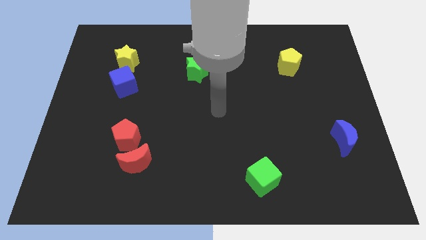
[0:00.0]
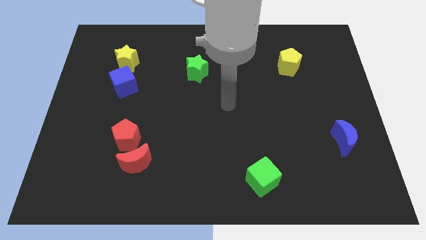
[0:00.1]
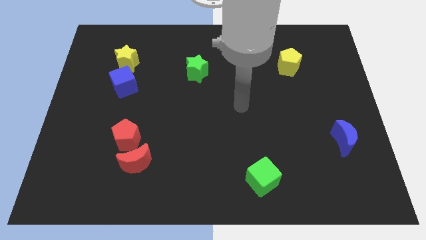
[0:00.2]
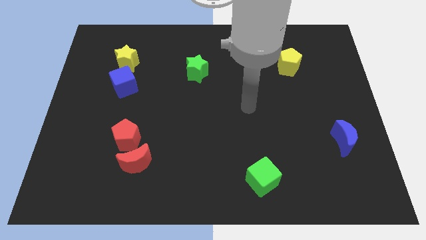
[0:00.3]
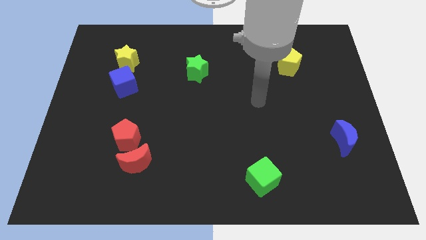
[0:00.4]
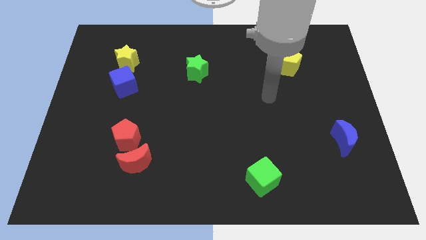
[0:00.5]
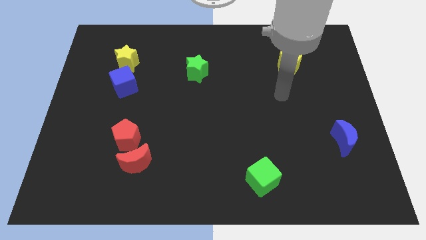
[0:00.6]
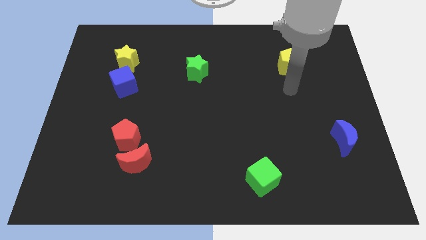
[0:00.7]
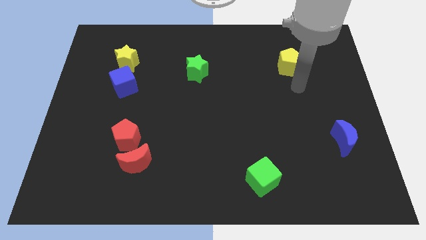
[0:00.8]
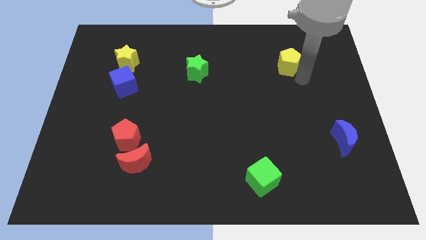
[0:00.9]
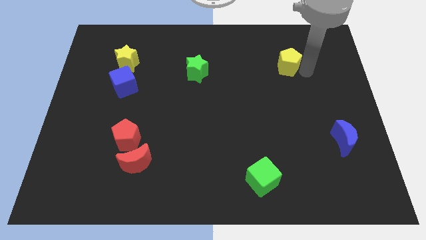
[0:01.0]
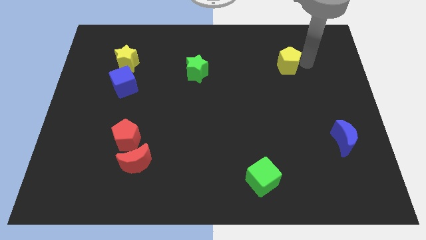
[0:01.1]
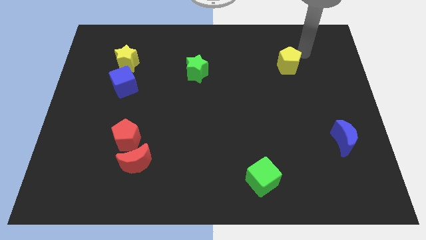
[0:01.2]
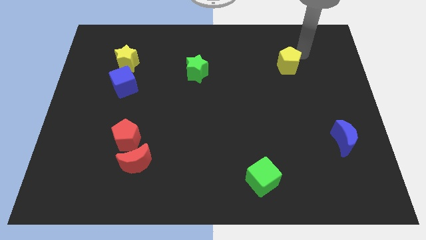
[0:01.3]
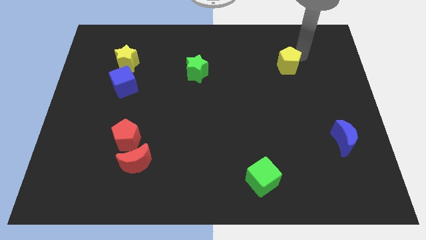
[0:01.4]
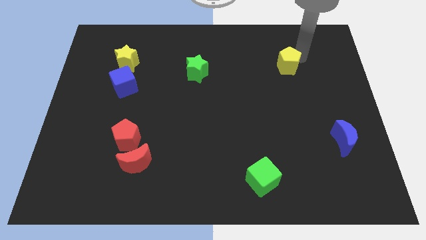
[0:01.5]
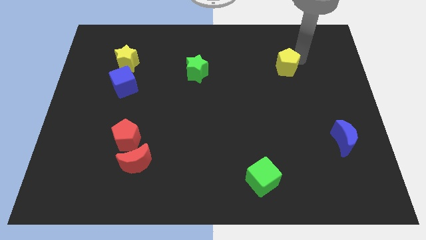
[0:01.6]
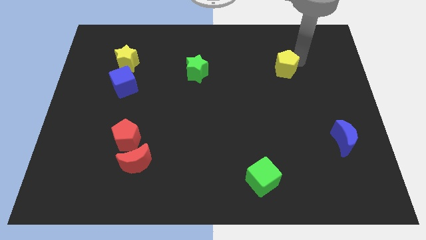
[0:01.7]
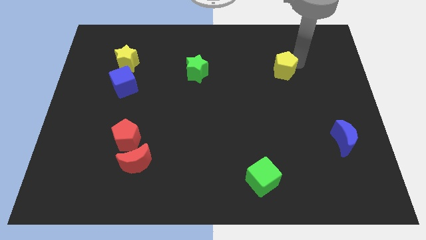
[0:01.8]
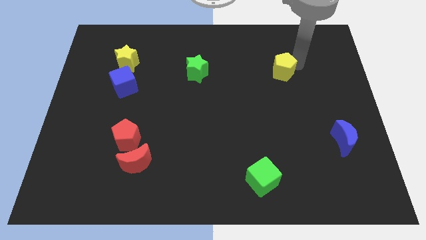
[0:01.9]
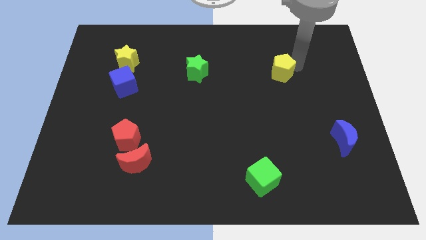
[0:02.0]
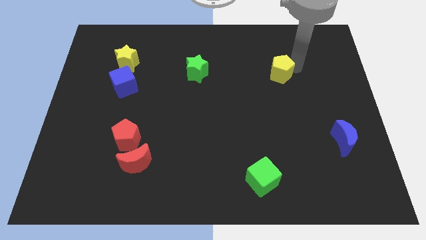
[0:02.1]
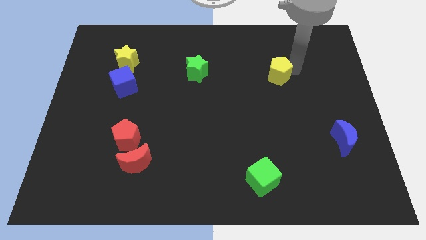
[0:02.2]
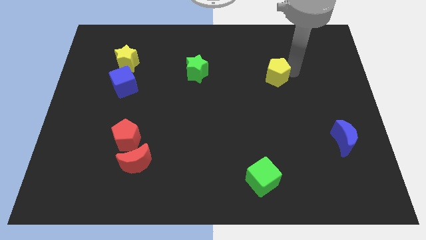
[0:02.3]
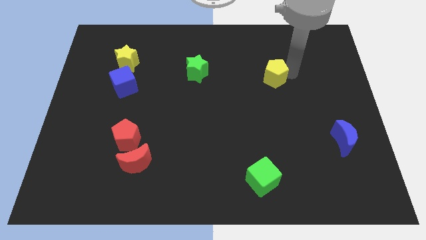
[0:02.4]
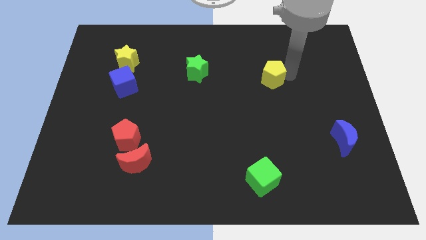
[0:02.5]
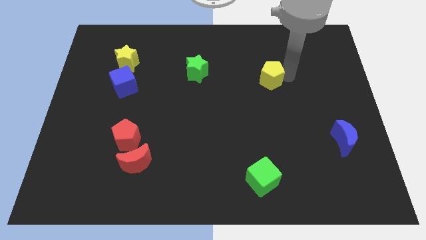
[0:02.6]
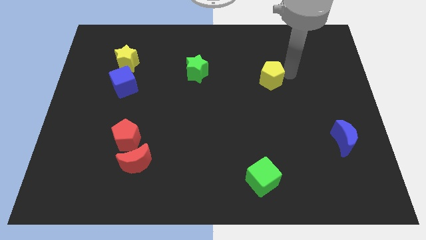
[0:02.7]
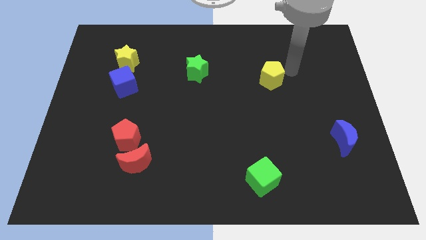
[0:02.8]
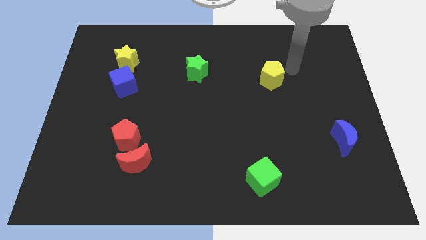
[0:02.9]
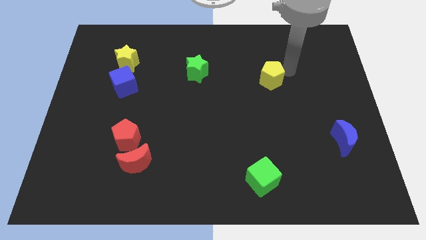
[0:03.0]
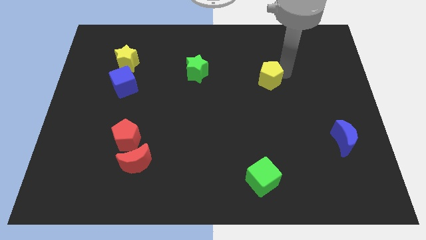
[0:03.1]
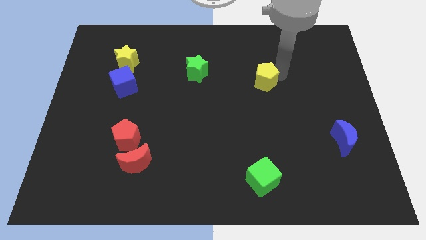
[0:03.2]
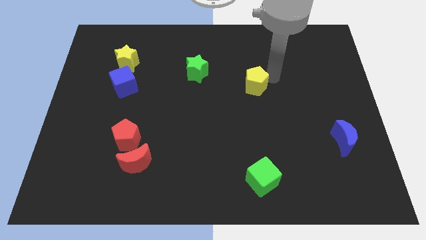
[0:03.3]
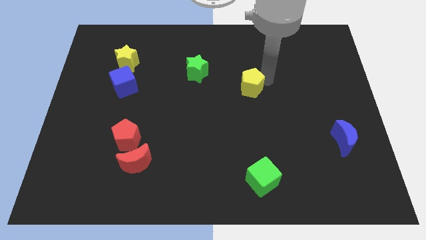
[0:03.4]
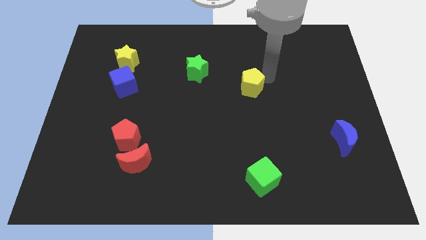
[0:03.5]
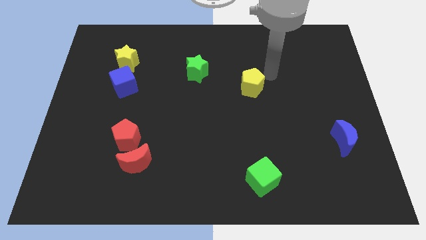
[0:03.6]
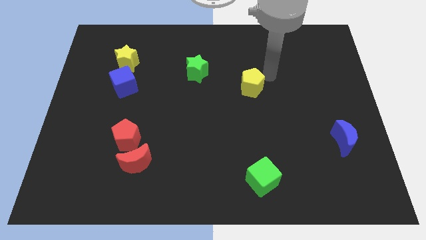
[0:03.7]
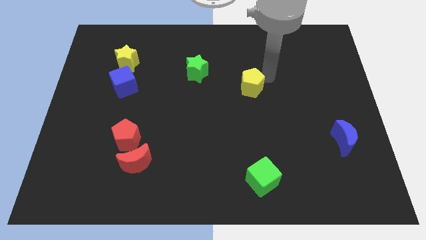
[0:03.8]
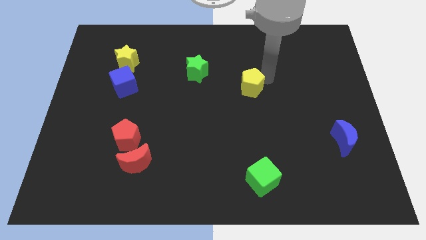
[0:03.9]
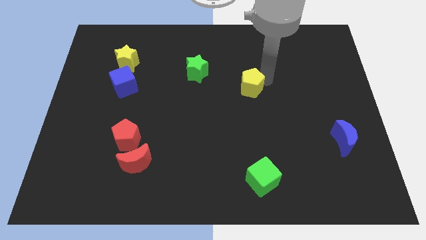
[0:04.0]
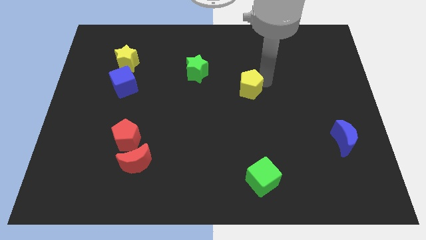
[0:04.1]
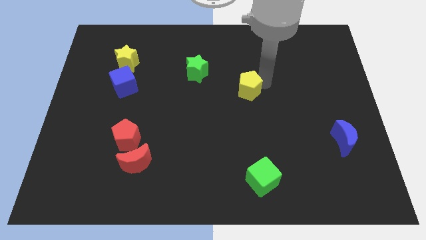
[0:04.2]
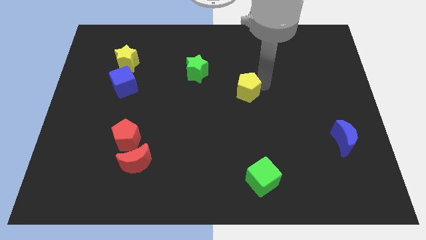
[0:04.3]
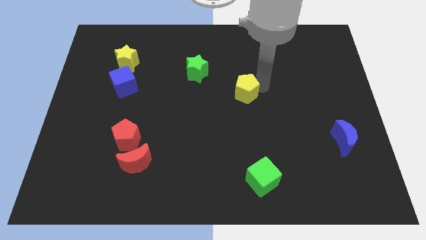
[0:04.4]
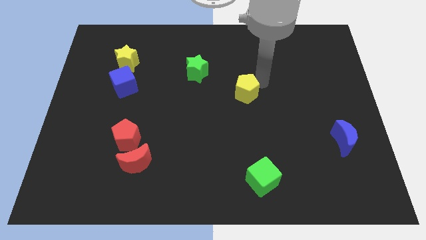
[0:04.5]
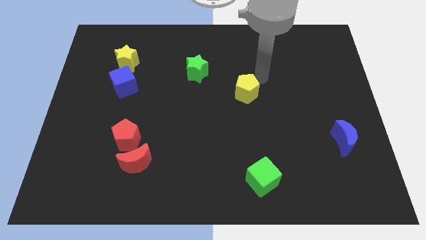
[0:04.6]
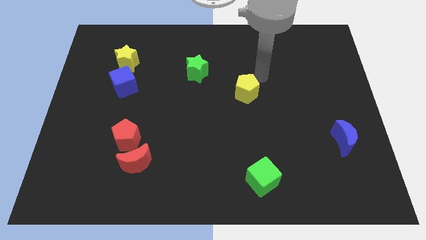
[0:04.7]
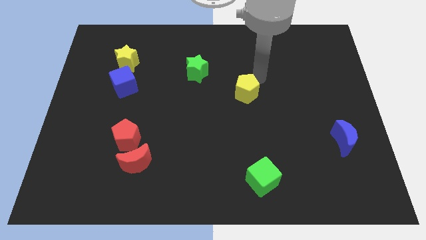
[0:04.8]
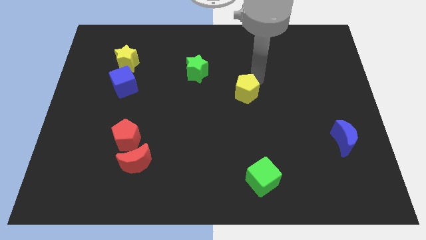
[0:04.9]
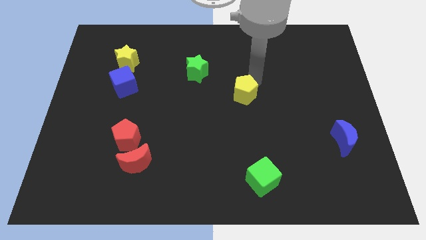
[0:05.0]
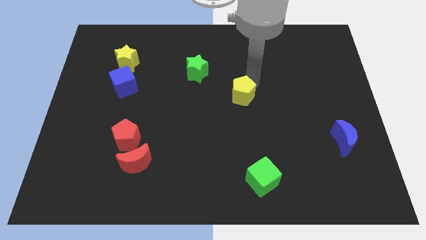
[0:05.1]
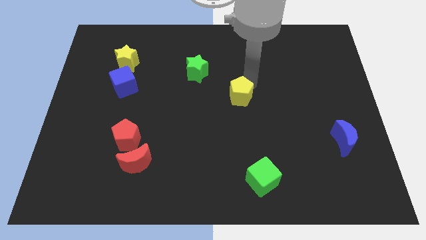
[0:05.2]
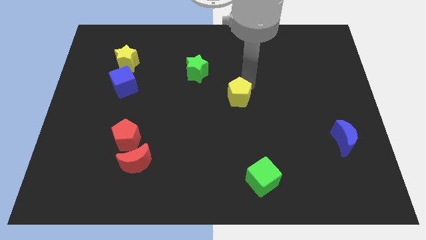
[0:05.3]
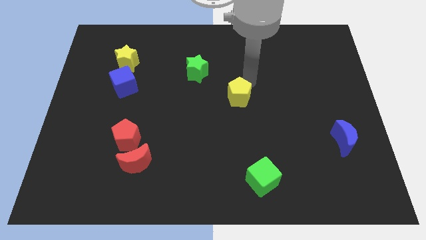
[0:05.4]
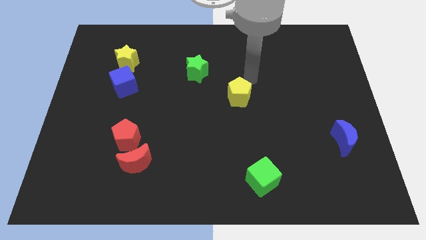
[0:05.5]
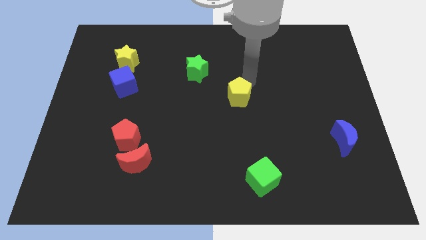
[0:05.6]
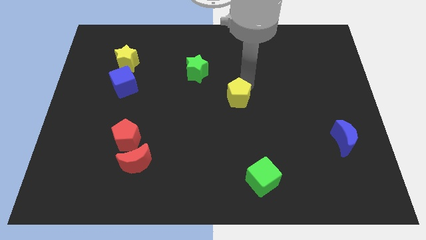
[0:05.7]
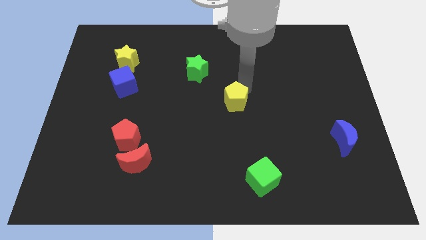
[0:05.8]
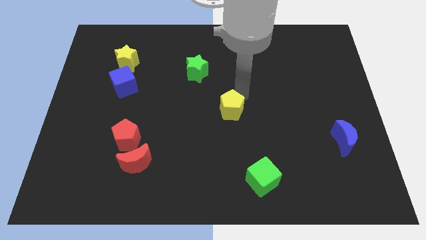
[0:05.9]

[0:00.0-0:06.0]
slide the yellow pentagon down and to the left

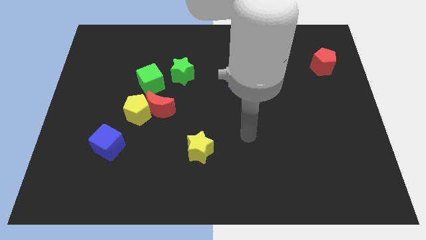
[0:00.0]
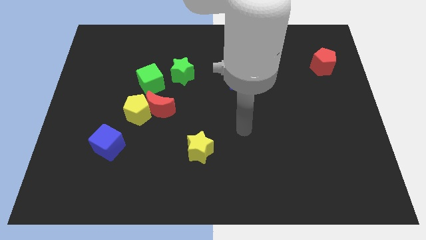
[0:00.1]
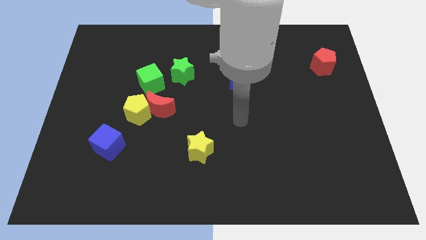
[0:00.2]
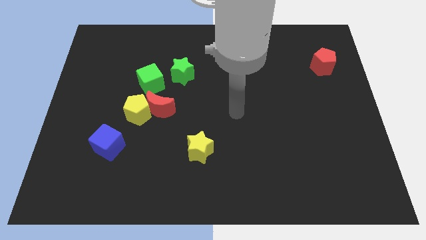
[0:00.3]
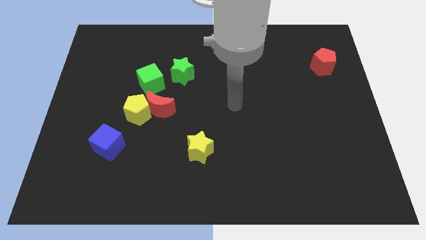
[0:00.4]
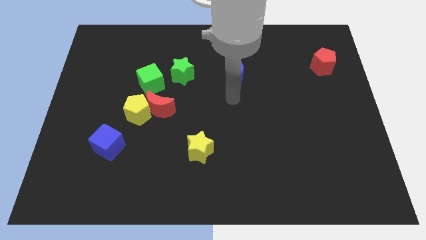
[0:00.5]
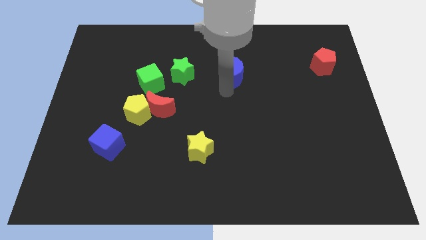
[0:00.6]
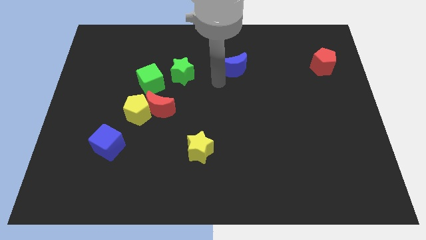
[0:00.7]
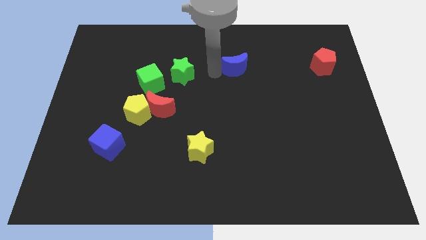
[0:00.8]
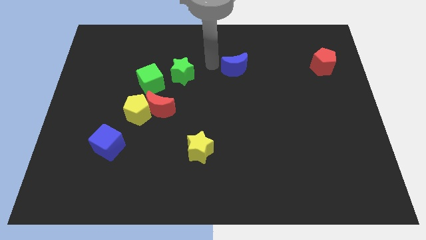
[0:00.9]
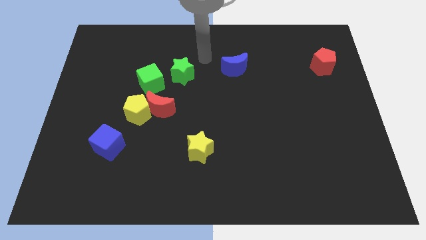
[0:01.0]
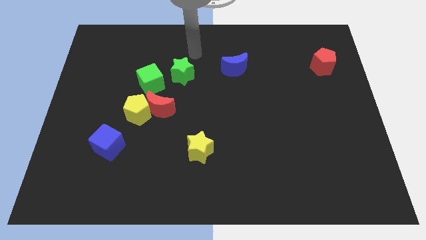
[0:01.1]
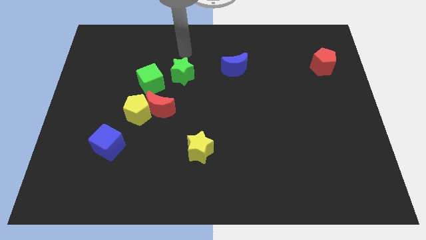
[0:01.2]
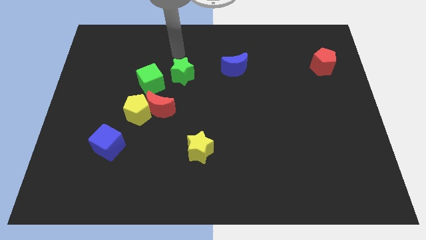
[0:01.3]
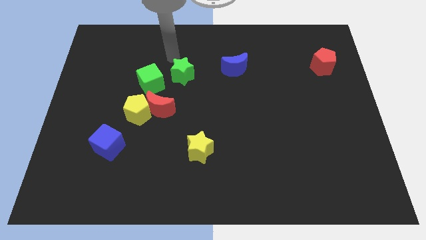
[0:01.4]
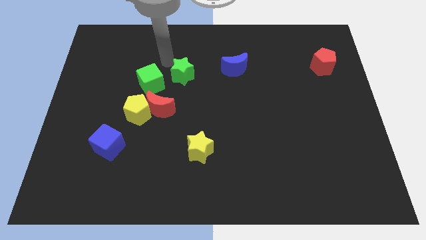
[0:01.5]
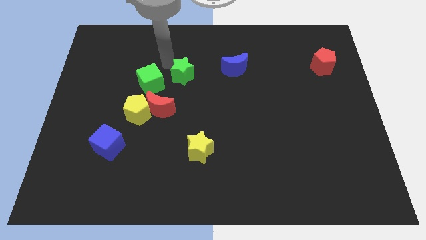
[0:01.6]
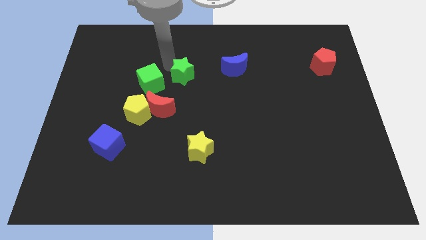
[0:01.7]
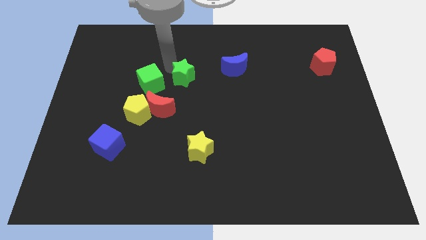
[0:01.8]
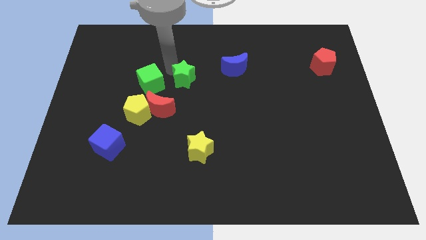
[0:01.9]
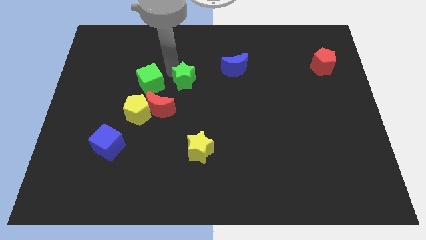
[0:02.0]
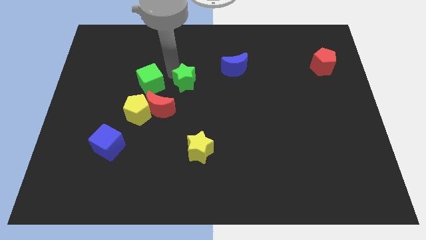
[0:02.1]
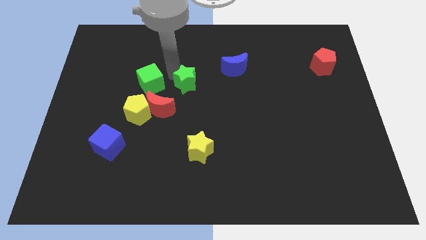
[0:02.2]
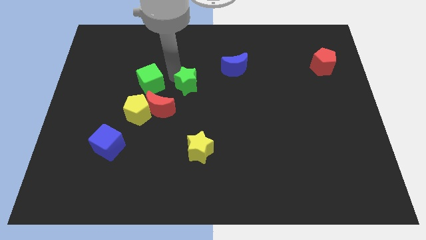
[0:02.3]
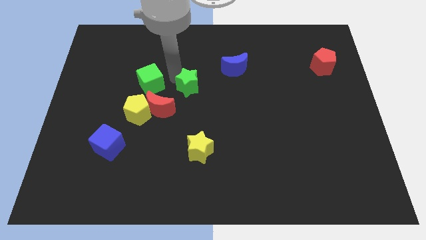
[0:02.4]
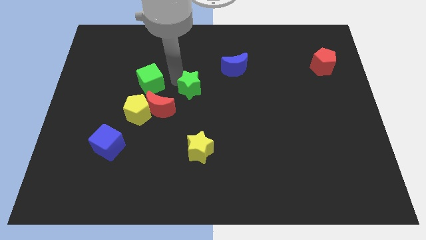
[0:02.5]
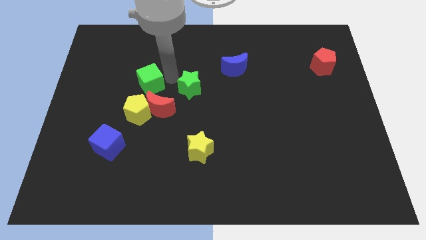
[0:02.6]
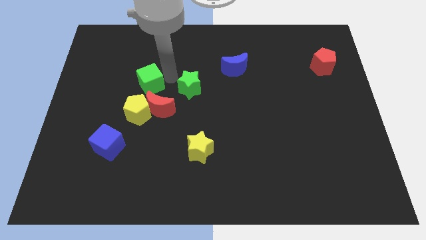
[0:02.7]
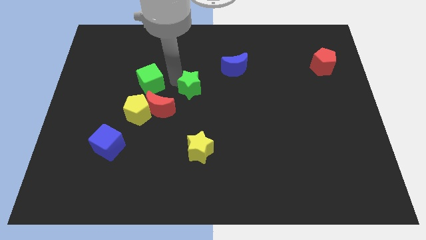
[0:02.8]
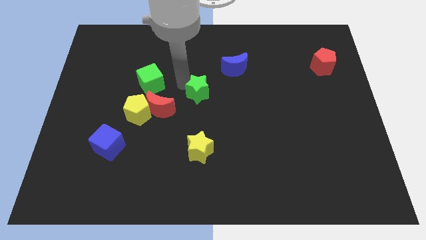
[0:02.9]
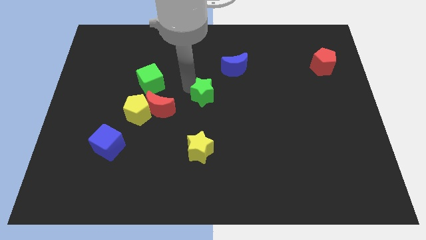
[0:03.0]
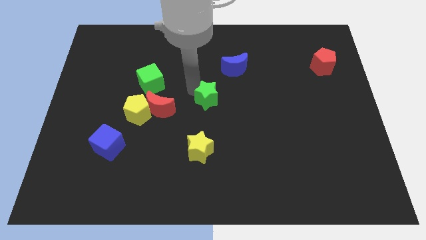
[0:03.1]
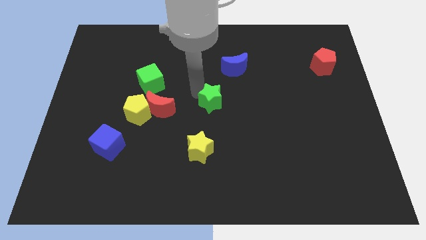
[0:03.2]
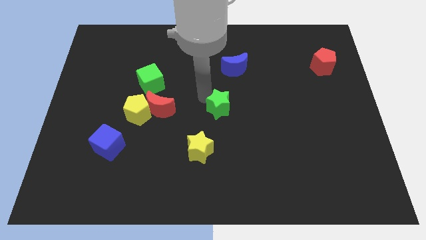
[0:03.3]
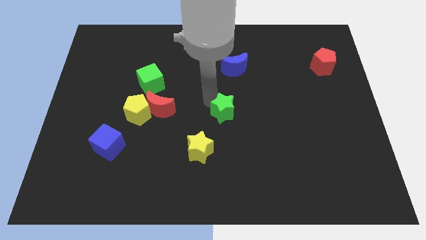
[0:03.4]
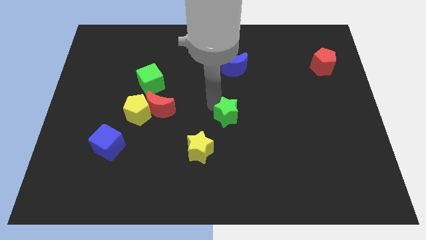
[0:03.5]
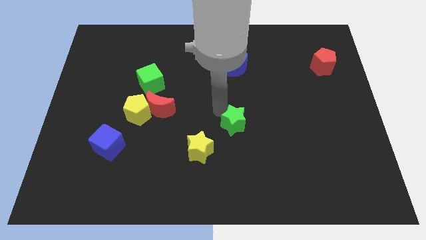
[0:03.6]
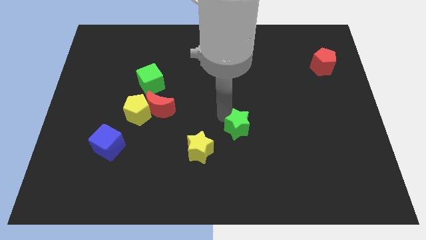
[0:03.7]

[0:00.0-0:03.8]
move the green star diagonally downwards and right
